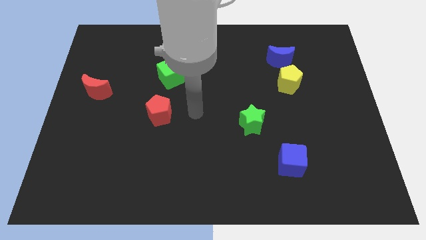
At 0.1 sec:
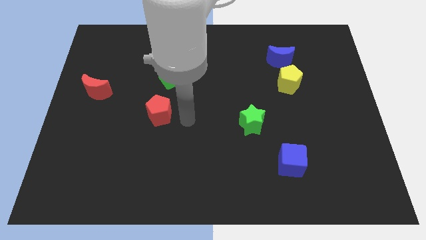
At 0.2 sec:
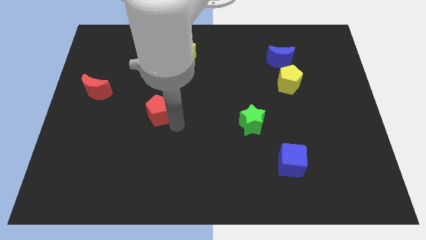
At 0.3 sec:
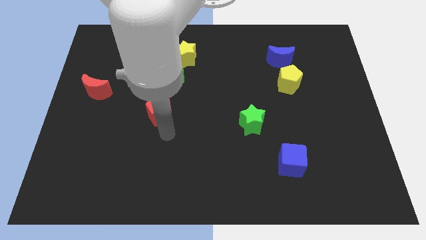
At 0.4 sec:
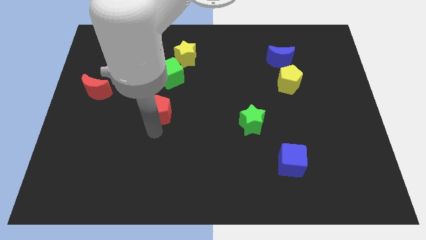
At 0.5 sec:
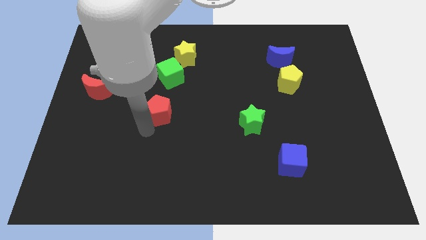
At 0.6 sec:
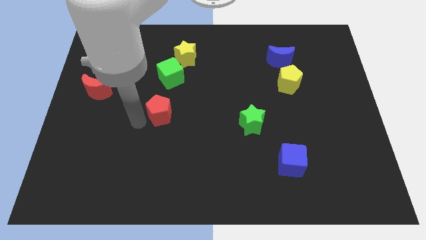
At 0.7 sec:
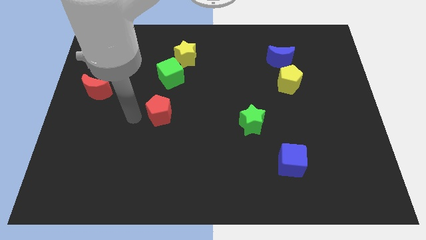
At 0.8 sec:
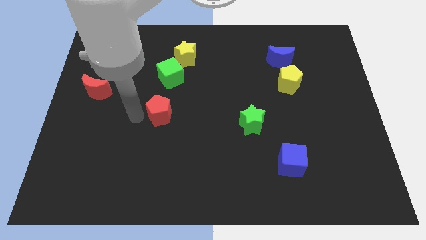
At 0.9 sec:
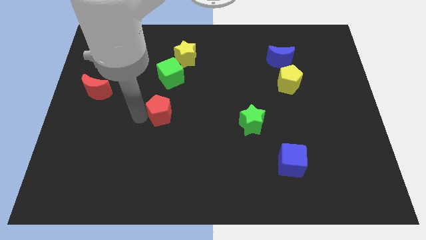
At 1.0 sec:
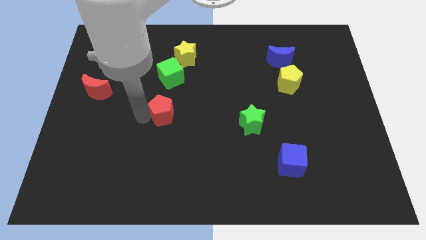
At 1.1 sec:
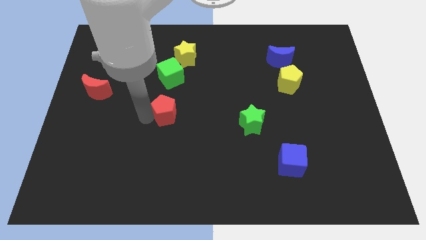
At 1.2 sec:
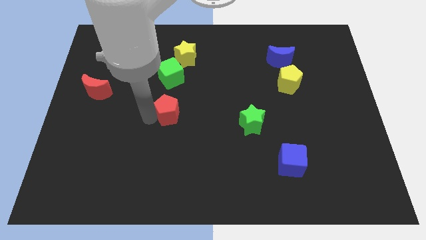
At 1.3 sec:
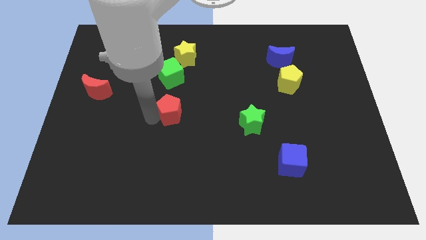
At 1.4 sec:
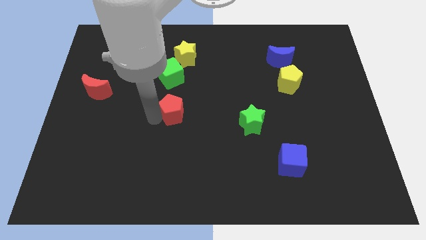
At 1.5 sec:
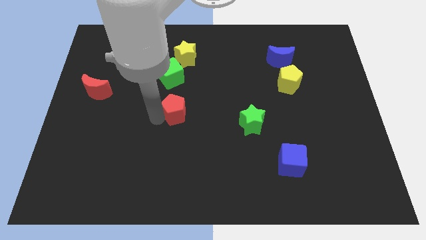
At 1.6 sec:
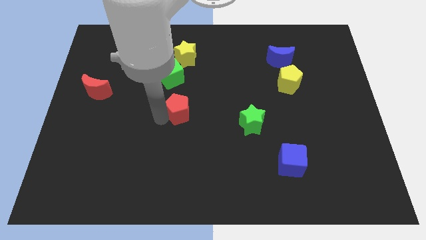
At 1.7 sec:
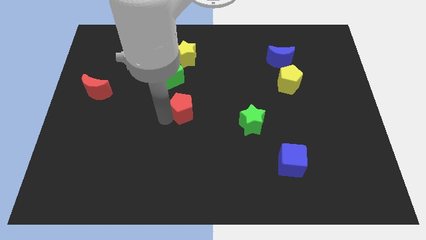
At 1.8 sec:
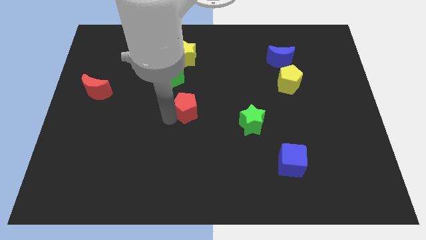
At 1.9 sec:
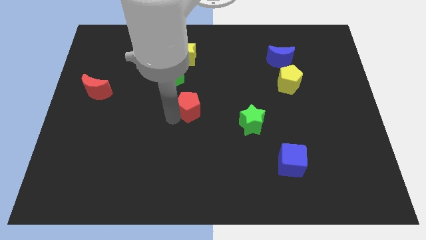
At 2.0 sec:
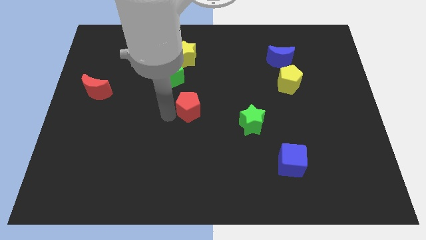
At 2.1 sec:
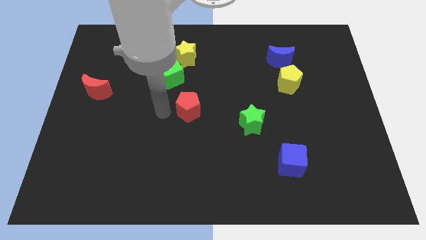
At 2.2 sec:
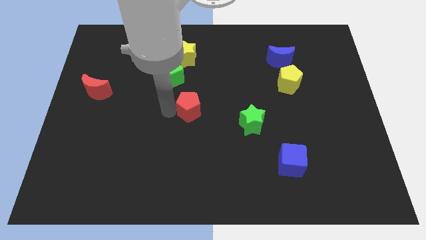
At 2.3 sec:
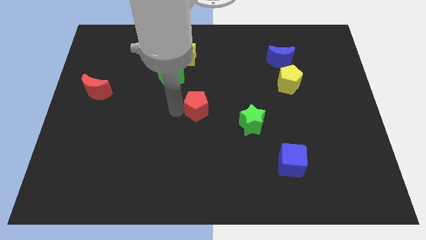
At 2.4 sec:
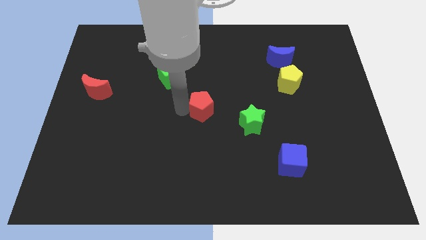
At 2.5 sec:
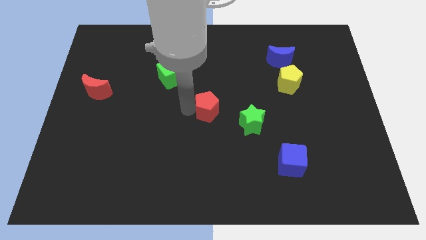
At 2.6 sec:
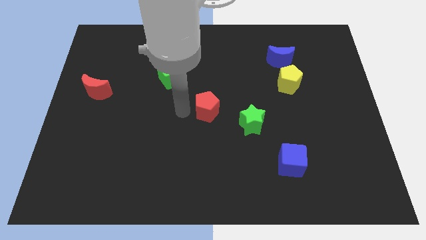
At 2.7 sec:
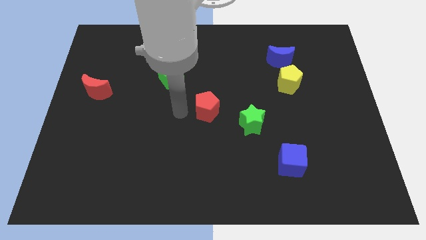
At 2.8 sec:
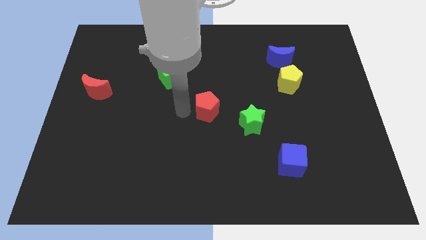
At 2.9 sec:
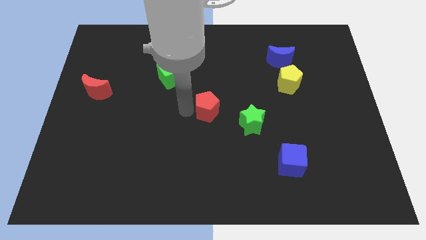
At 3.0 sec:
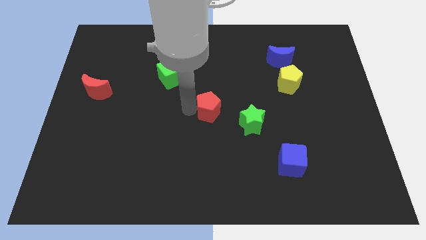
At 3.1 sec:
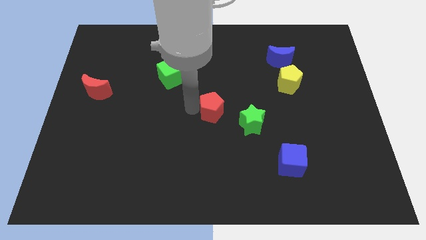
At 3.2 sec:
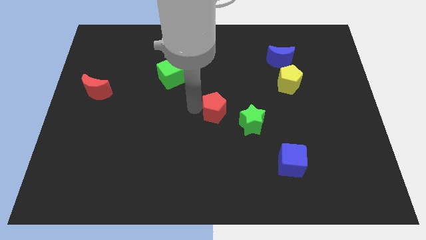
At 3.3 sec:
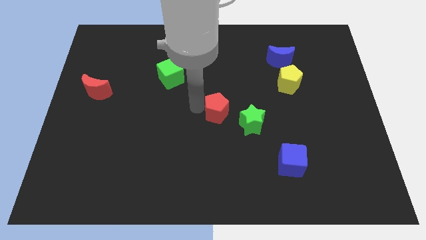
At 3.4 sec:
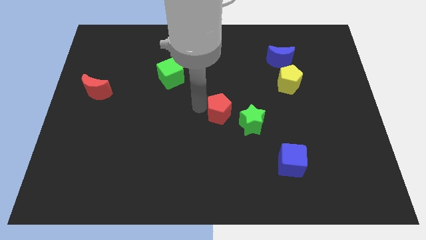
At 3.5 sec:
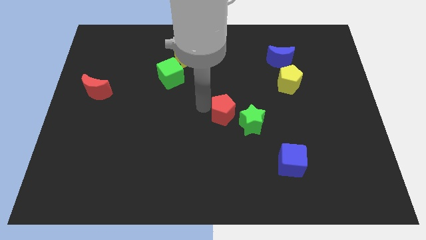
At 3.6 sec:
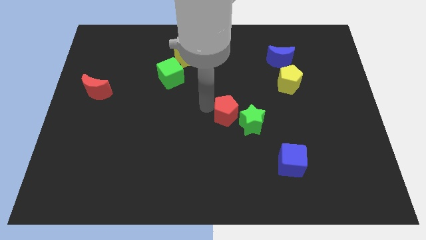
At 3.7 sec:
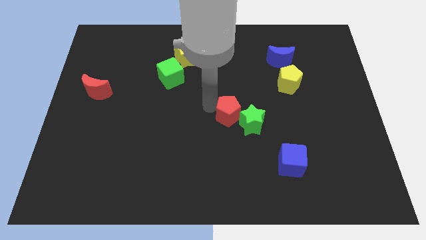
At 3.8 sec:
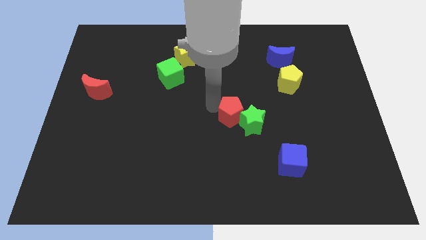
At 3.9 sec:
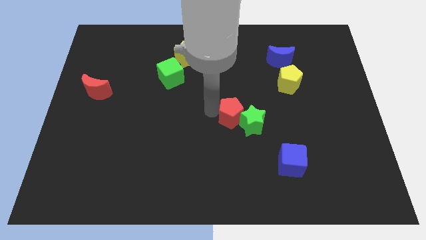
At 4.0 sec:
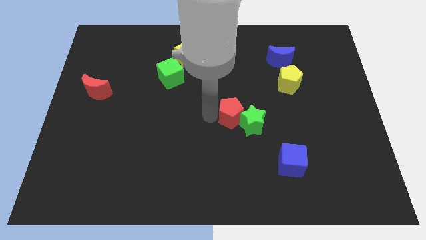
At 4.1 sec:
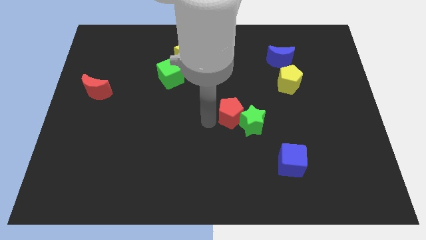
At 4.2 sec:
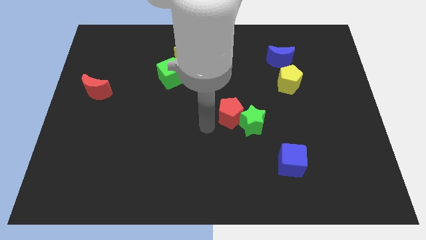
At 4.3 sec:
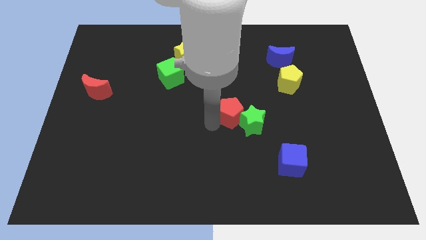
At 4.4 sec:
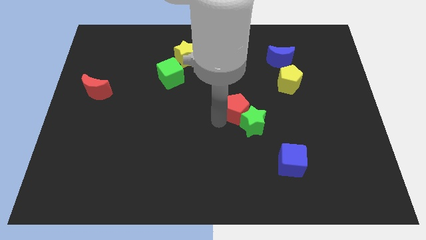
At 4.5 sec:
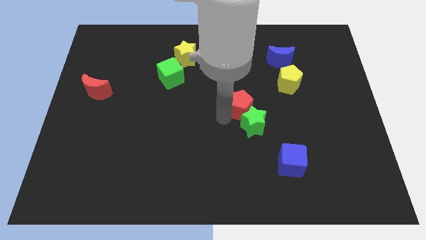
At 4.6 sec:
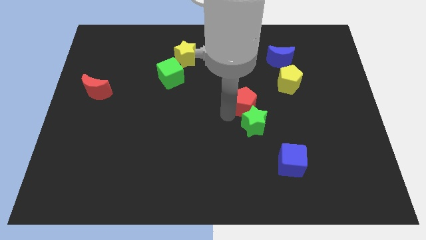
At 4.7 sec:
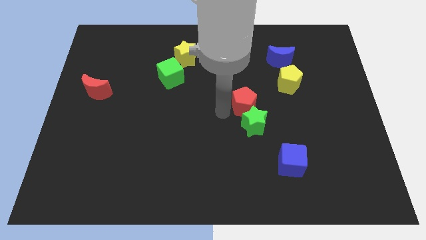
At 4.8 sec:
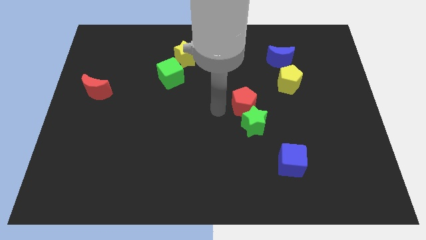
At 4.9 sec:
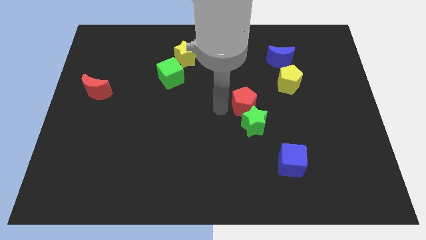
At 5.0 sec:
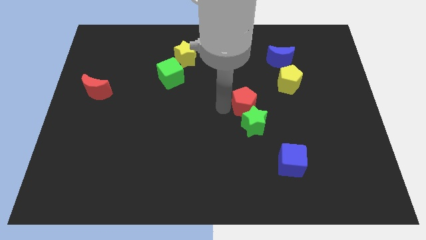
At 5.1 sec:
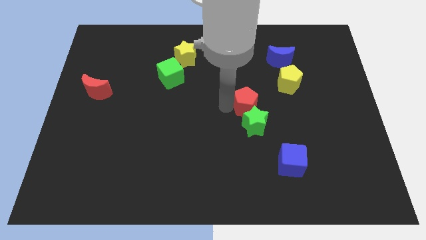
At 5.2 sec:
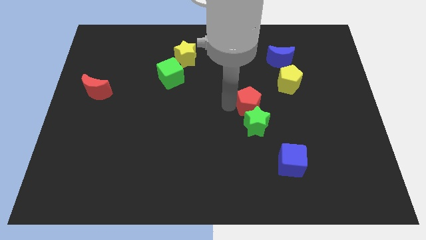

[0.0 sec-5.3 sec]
push the red pentagon to the bottom left of the yellow pentagon

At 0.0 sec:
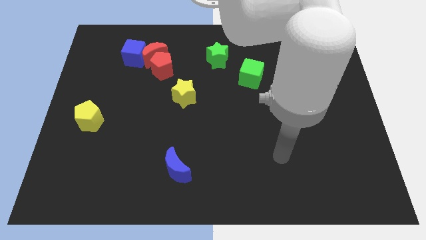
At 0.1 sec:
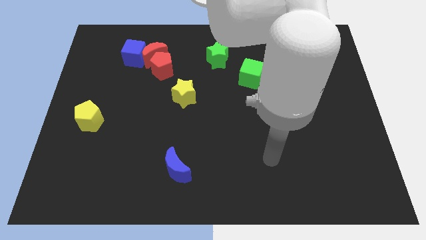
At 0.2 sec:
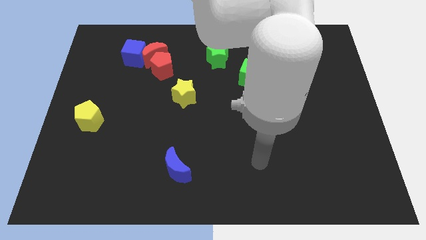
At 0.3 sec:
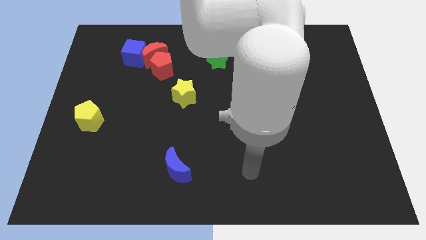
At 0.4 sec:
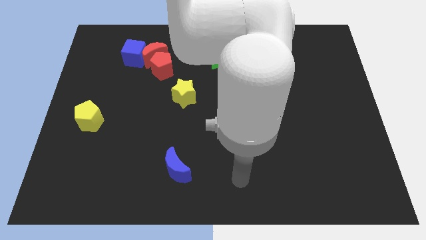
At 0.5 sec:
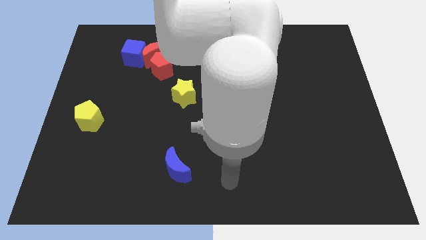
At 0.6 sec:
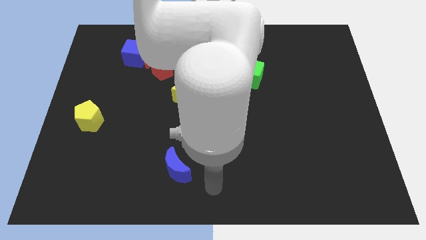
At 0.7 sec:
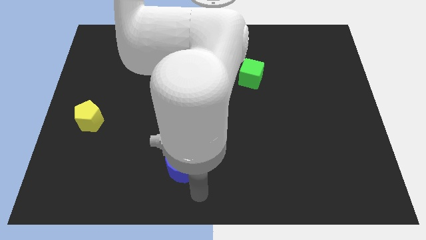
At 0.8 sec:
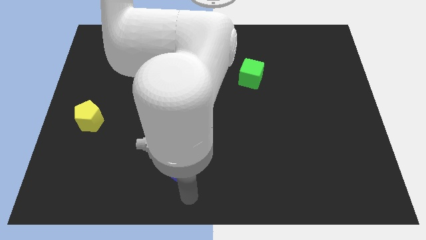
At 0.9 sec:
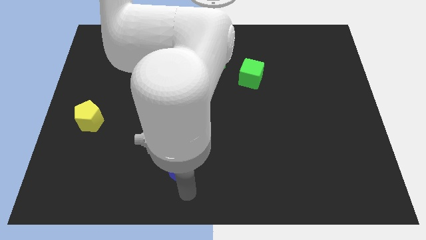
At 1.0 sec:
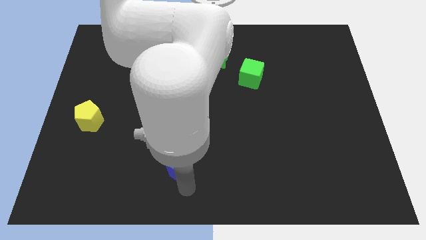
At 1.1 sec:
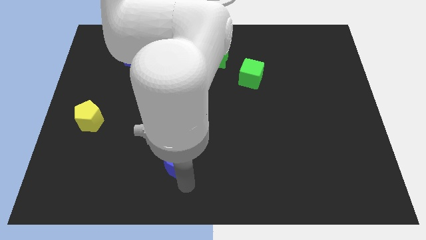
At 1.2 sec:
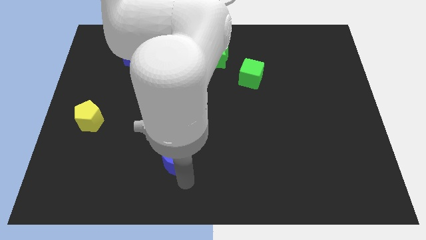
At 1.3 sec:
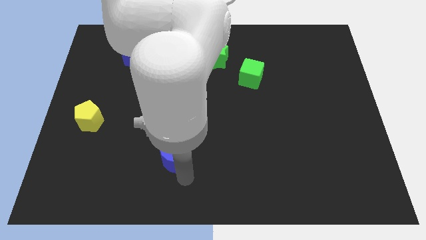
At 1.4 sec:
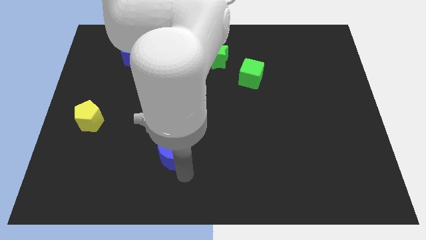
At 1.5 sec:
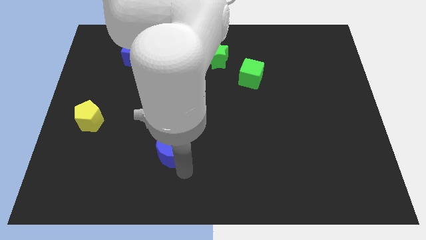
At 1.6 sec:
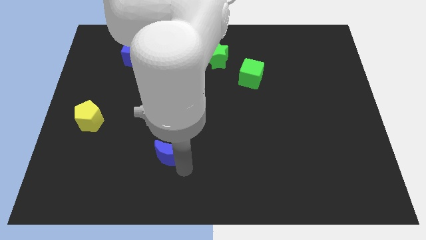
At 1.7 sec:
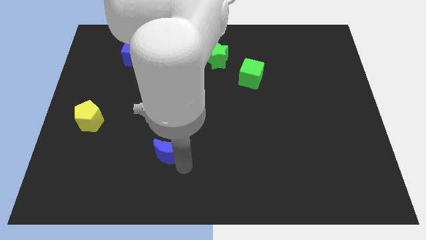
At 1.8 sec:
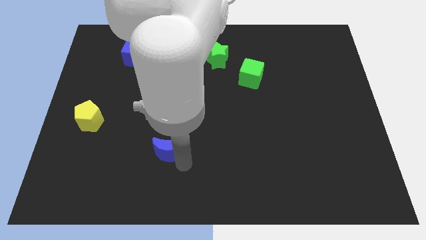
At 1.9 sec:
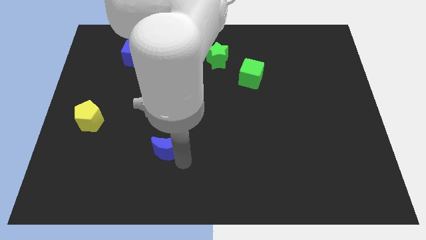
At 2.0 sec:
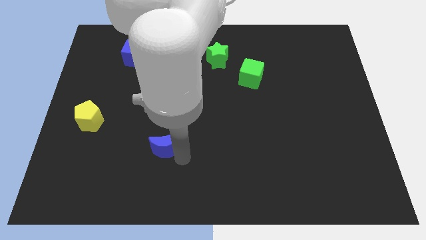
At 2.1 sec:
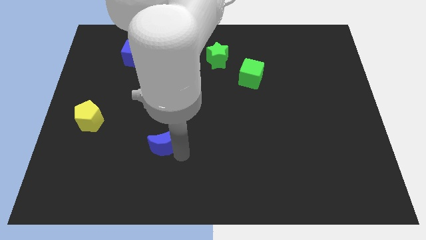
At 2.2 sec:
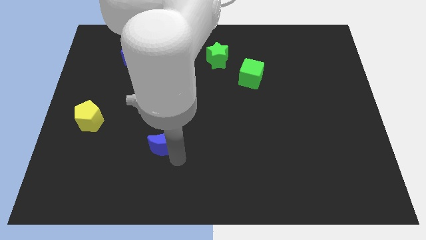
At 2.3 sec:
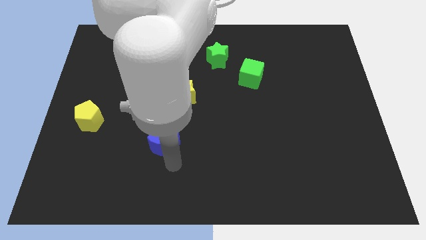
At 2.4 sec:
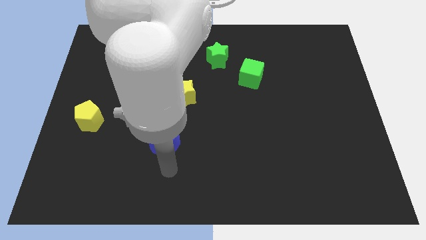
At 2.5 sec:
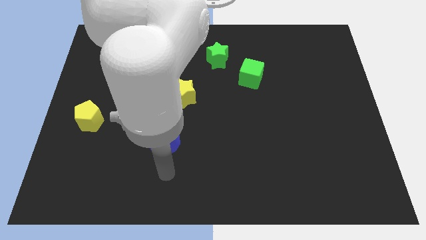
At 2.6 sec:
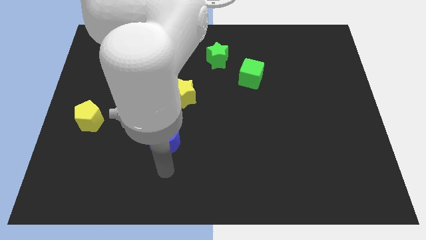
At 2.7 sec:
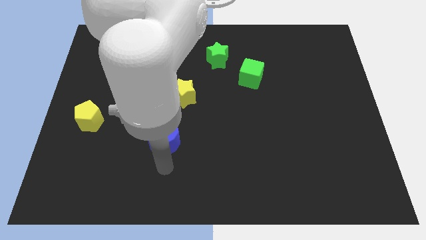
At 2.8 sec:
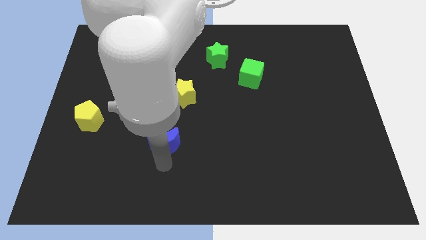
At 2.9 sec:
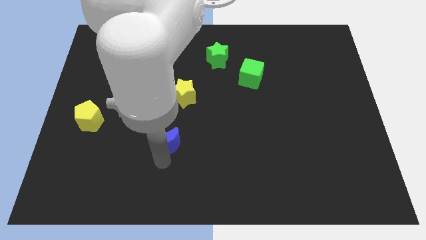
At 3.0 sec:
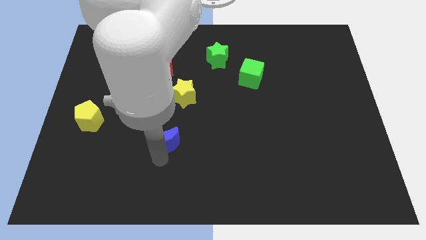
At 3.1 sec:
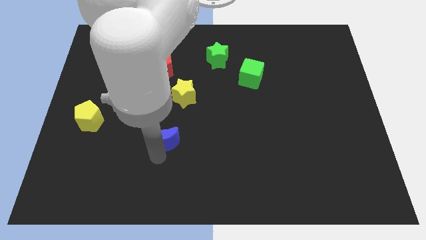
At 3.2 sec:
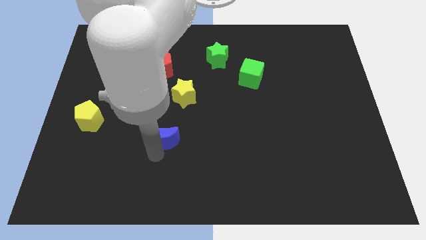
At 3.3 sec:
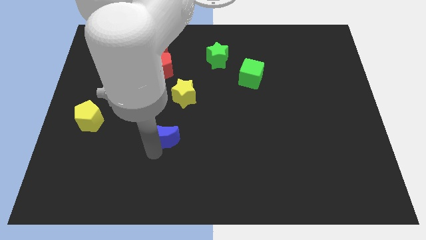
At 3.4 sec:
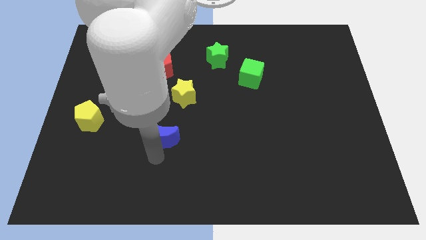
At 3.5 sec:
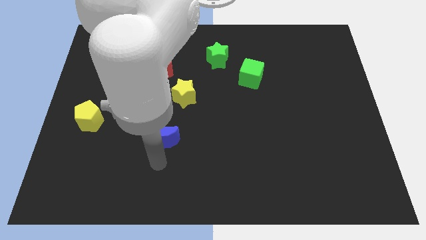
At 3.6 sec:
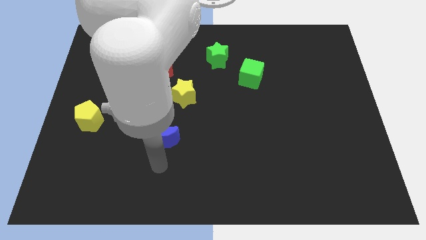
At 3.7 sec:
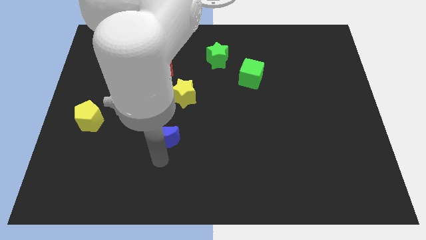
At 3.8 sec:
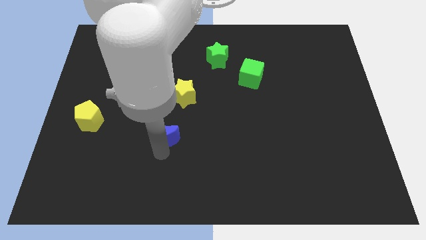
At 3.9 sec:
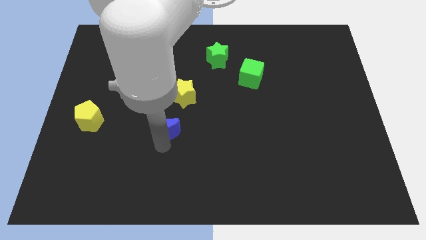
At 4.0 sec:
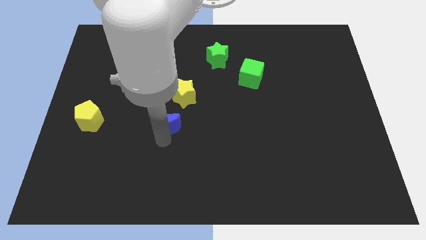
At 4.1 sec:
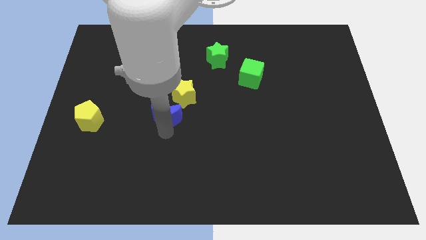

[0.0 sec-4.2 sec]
move the blue moon to the bottom side of the red pentagon
